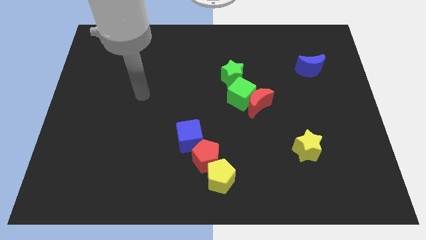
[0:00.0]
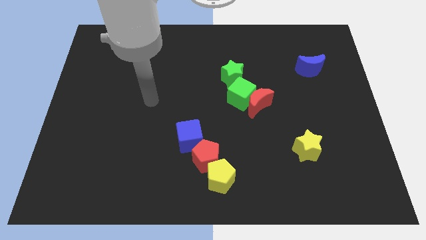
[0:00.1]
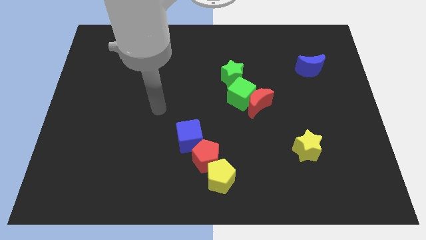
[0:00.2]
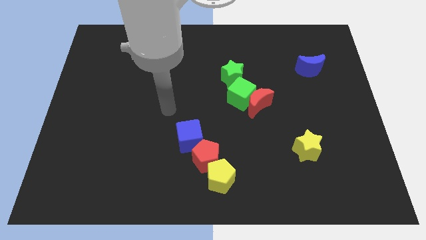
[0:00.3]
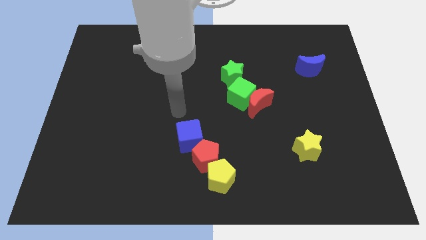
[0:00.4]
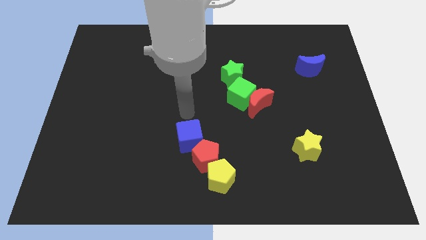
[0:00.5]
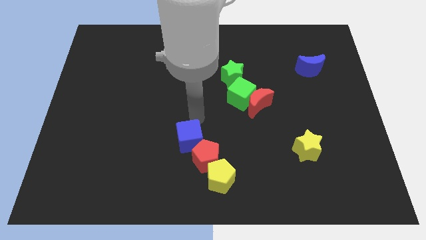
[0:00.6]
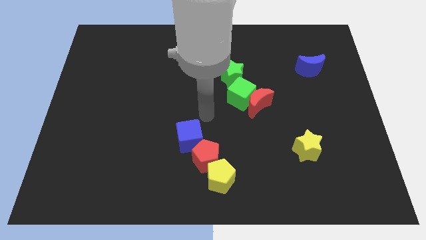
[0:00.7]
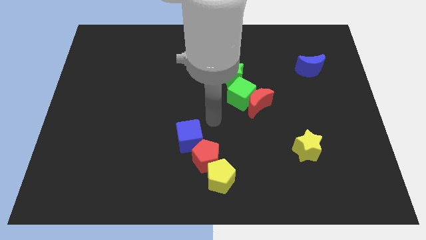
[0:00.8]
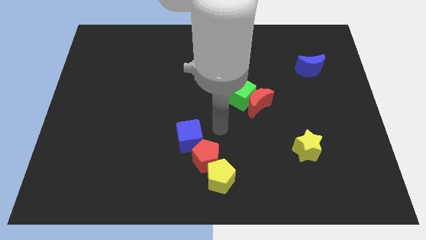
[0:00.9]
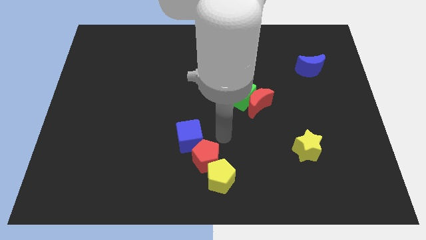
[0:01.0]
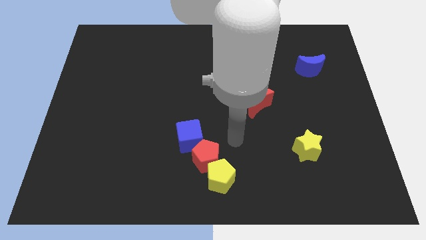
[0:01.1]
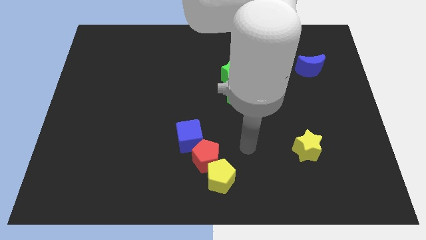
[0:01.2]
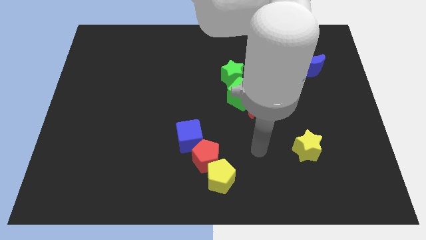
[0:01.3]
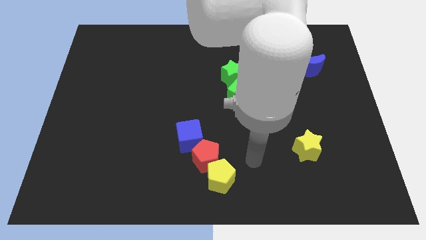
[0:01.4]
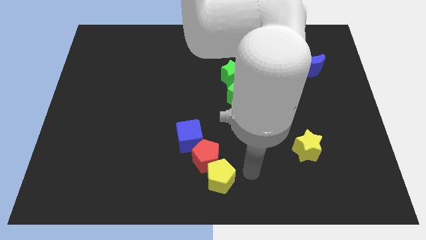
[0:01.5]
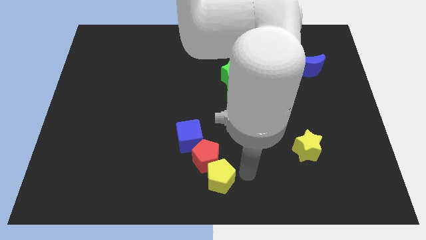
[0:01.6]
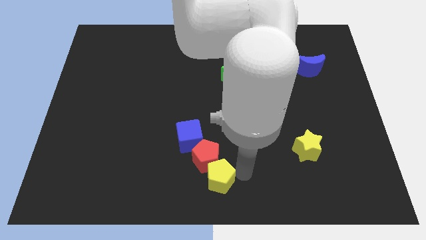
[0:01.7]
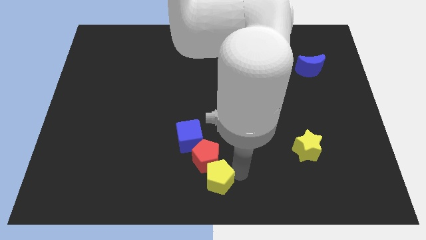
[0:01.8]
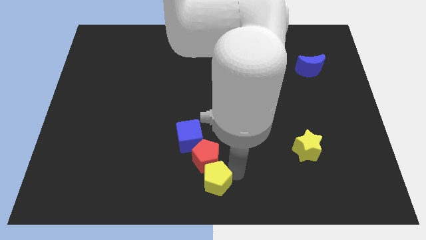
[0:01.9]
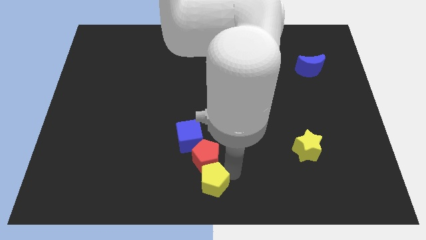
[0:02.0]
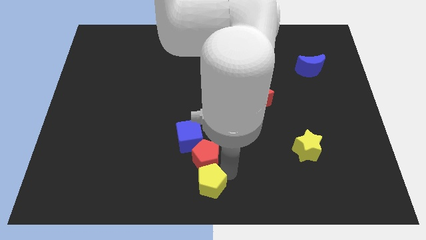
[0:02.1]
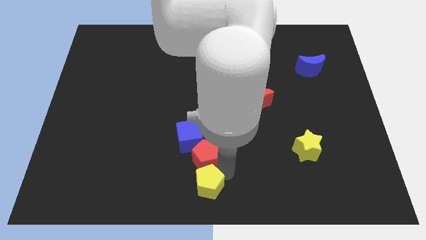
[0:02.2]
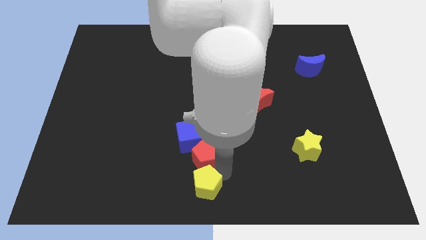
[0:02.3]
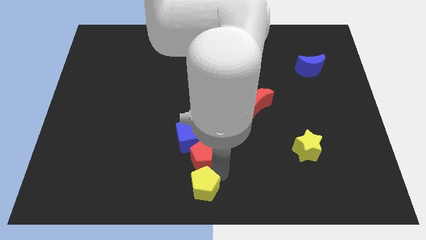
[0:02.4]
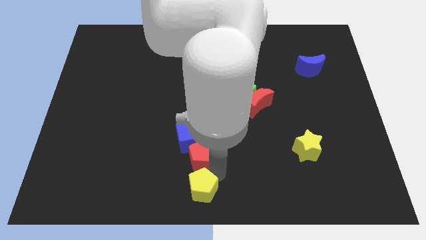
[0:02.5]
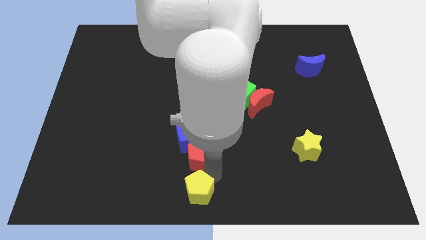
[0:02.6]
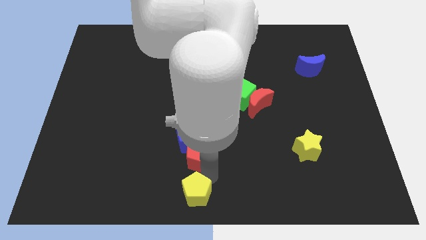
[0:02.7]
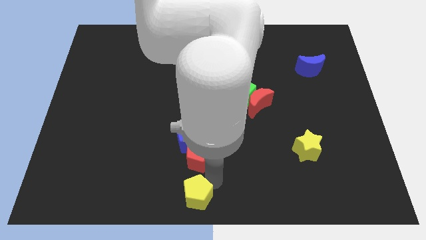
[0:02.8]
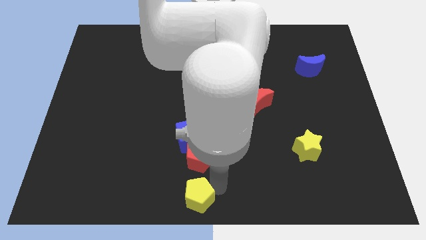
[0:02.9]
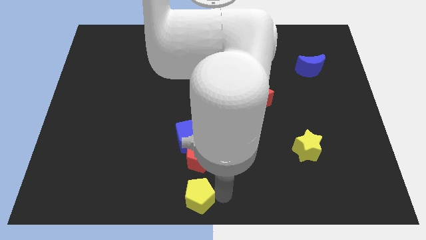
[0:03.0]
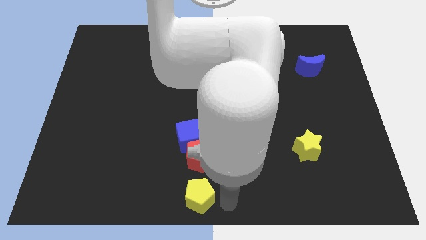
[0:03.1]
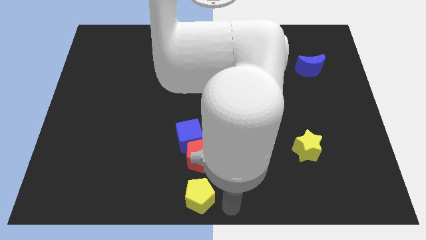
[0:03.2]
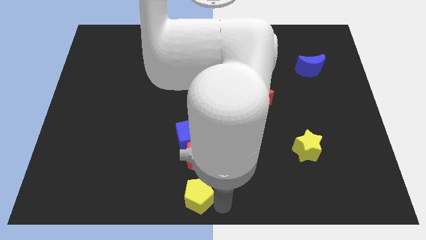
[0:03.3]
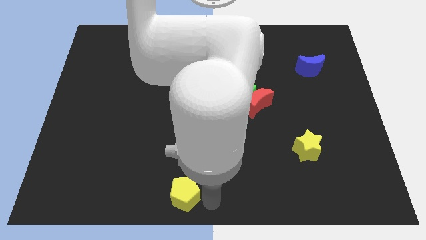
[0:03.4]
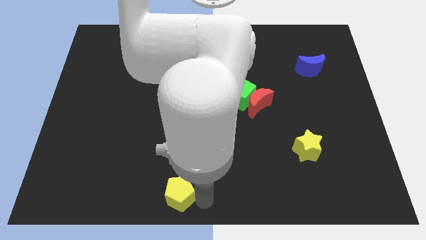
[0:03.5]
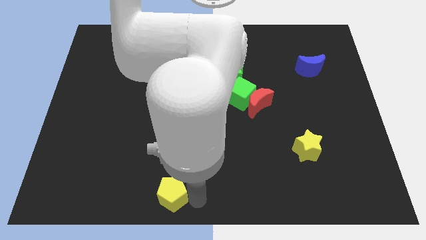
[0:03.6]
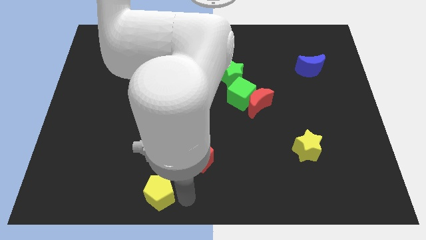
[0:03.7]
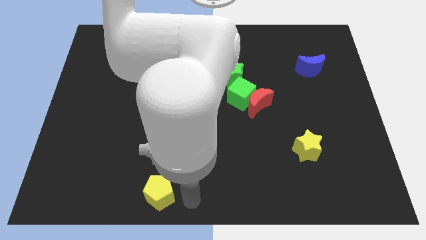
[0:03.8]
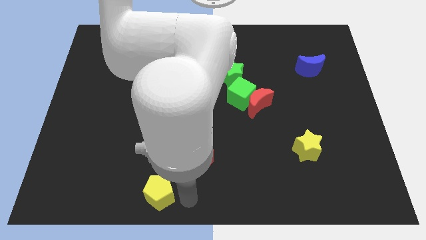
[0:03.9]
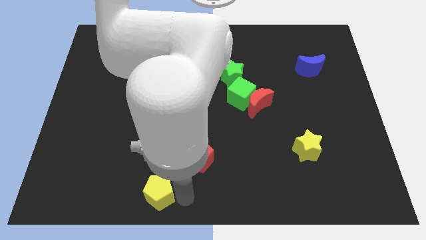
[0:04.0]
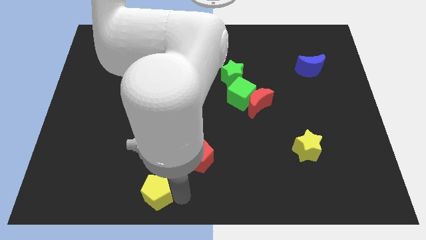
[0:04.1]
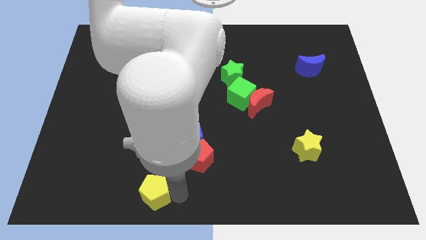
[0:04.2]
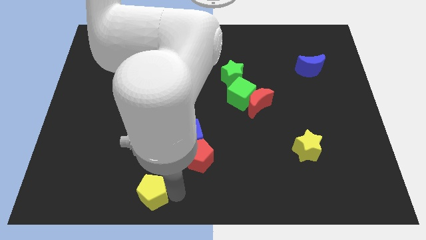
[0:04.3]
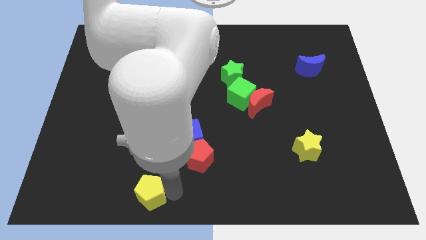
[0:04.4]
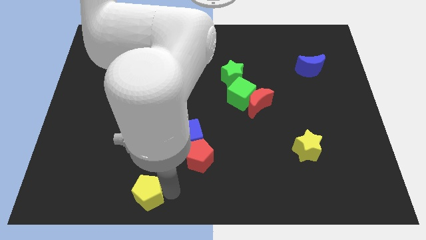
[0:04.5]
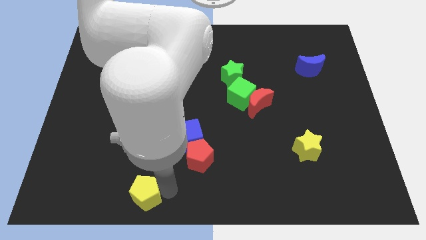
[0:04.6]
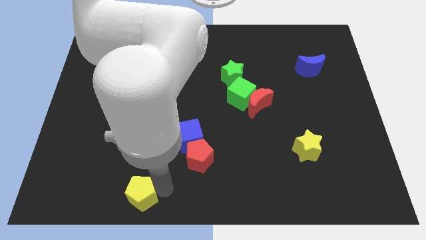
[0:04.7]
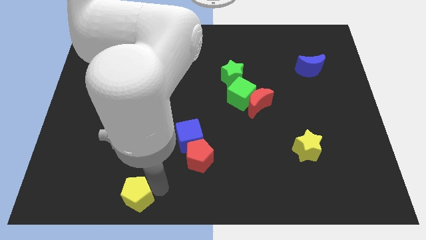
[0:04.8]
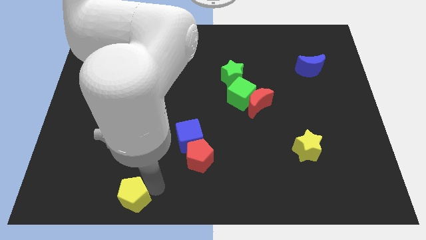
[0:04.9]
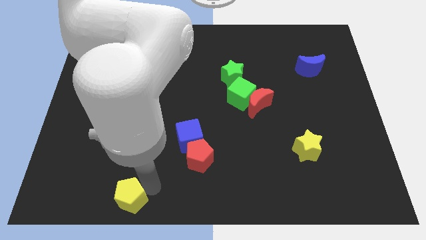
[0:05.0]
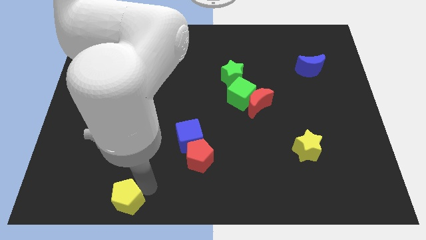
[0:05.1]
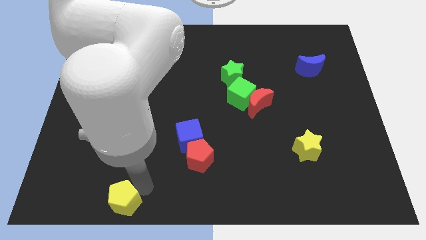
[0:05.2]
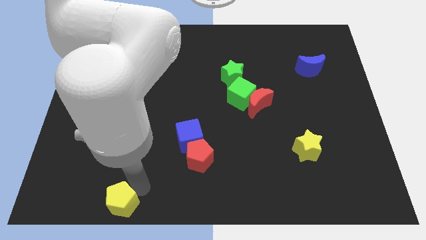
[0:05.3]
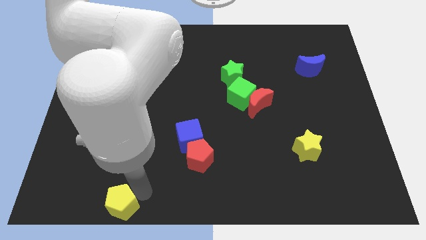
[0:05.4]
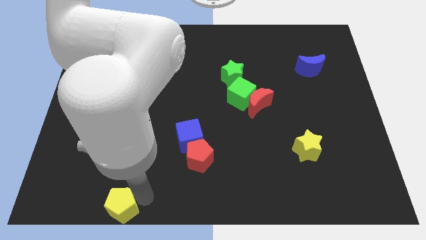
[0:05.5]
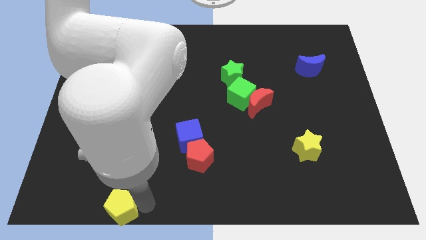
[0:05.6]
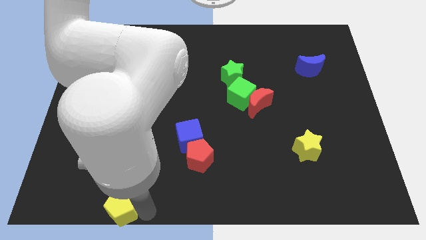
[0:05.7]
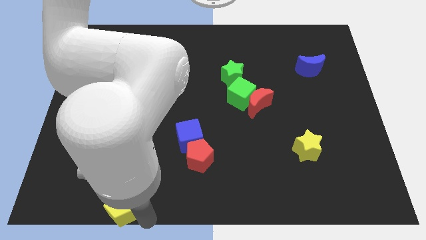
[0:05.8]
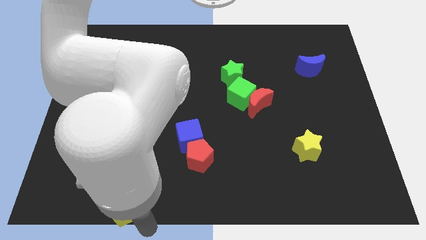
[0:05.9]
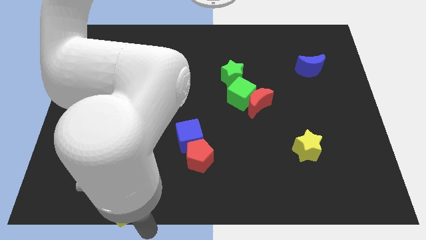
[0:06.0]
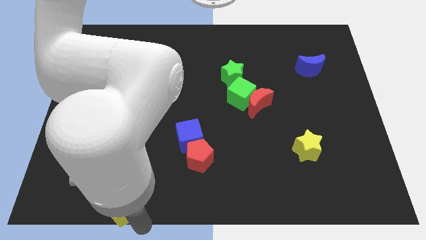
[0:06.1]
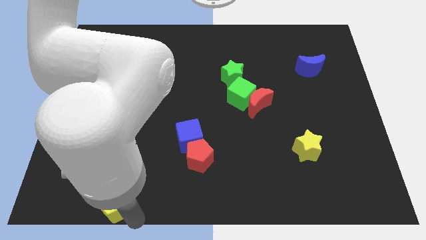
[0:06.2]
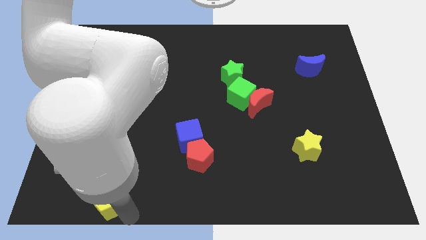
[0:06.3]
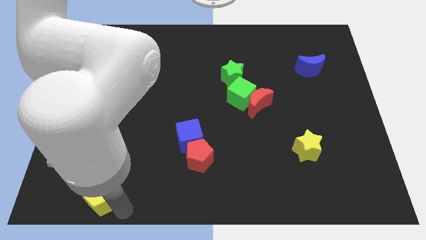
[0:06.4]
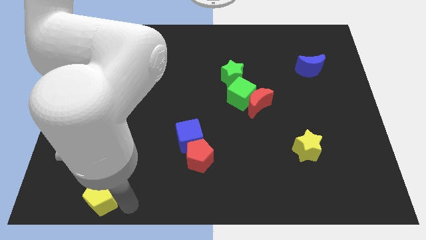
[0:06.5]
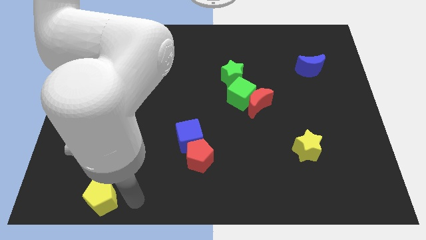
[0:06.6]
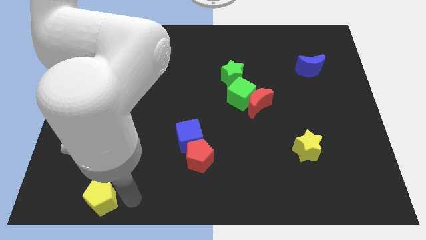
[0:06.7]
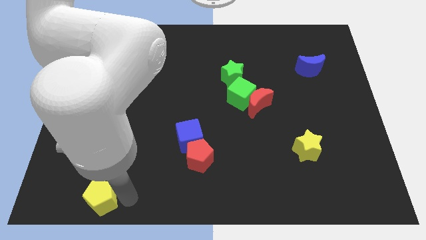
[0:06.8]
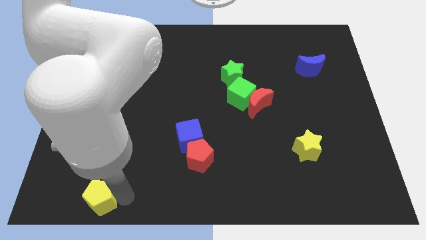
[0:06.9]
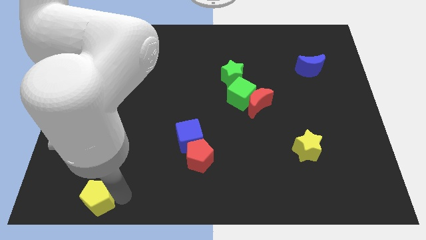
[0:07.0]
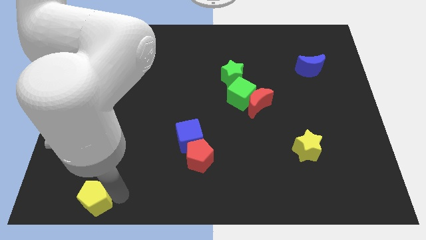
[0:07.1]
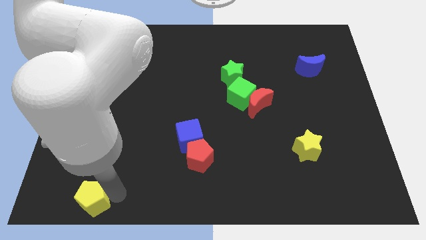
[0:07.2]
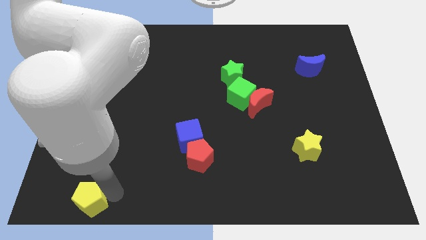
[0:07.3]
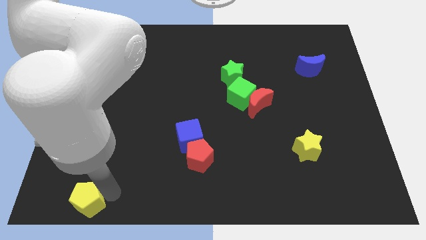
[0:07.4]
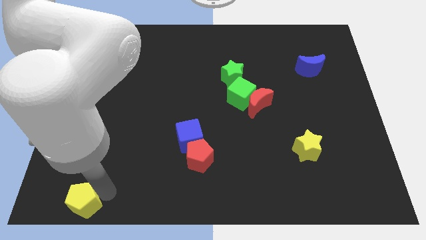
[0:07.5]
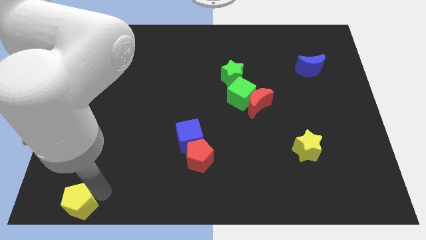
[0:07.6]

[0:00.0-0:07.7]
push the yellow pentagon to the lower left corner
